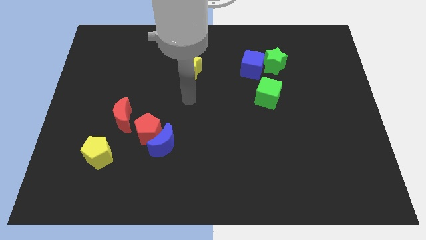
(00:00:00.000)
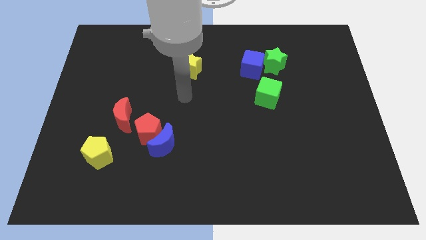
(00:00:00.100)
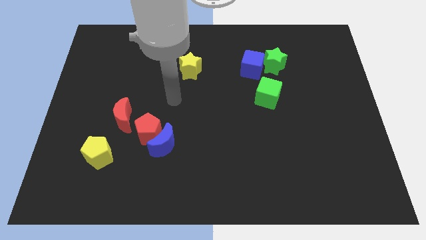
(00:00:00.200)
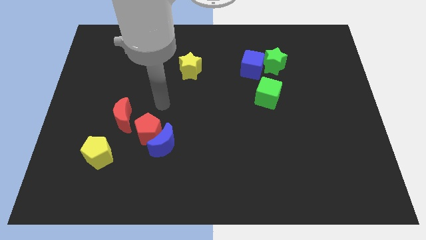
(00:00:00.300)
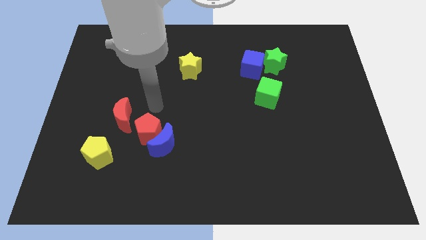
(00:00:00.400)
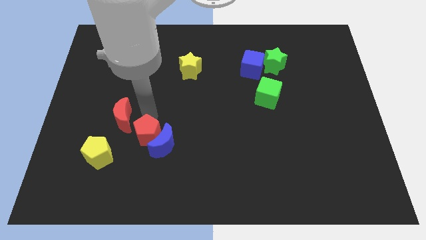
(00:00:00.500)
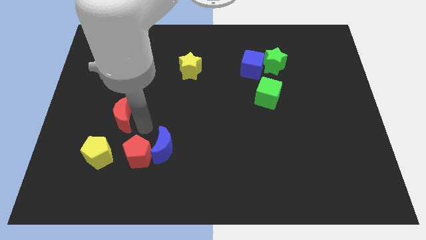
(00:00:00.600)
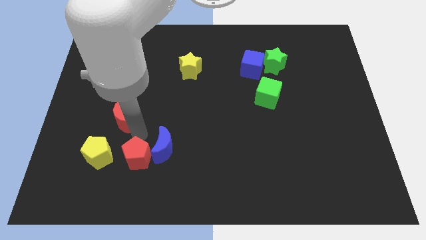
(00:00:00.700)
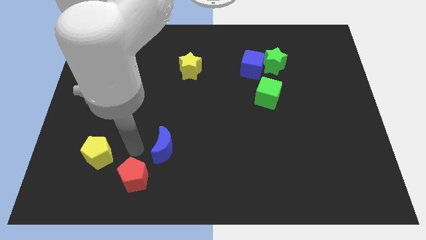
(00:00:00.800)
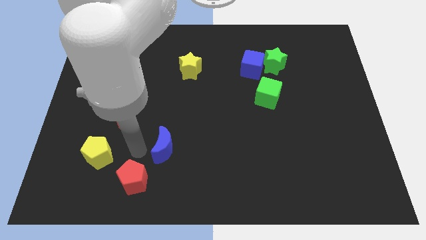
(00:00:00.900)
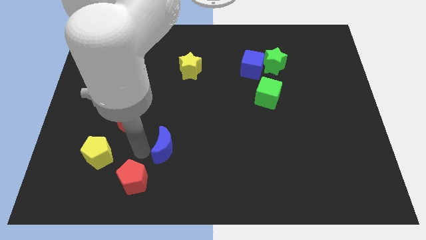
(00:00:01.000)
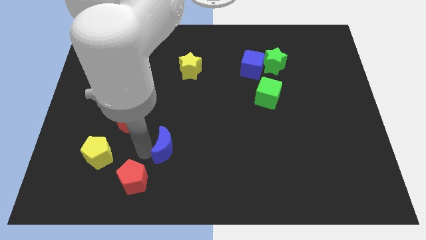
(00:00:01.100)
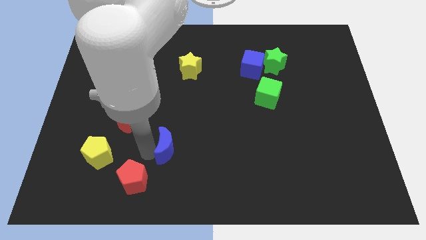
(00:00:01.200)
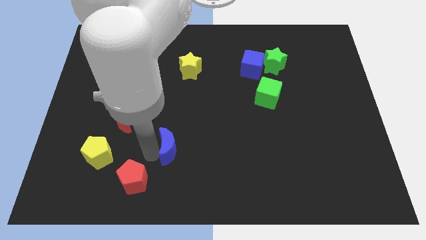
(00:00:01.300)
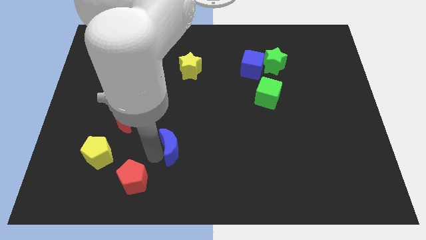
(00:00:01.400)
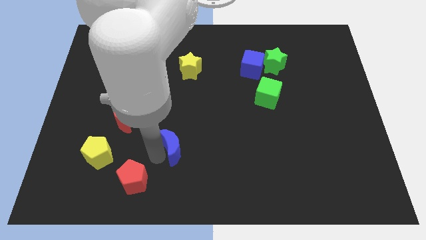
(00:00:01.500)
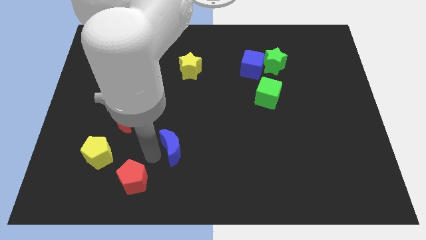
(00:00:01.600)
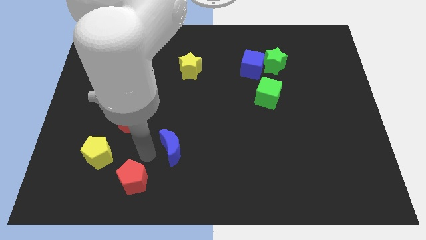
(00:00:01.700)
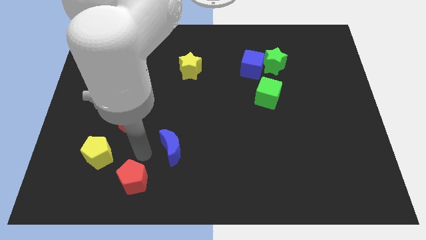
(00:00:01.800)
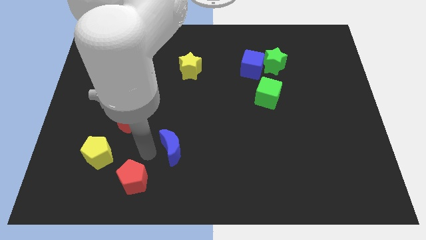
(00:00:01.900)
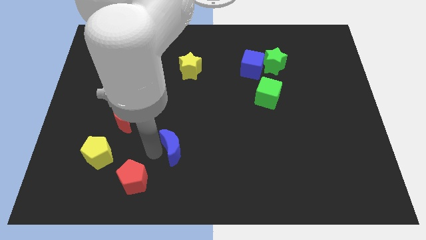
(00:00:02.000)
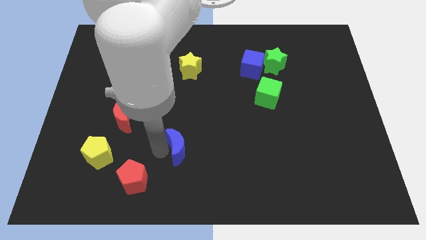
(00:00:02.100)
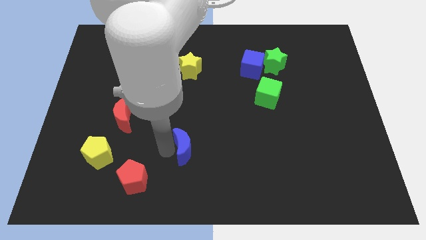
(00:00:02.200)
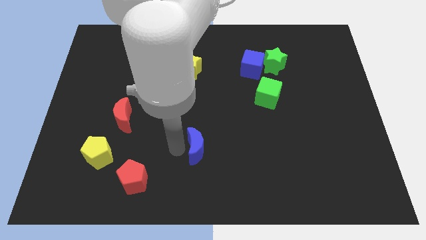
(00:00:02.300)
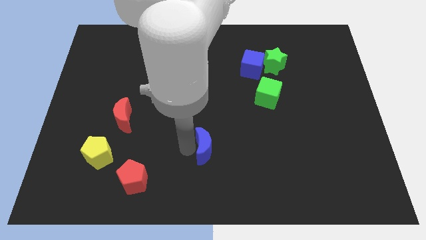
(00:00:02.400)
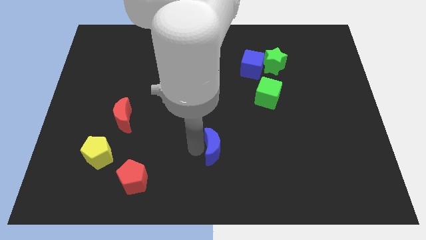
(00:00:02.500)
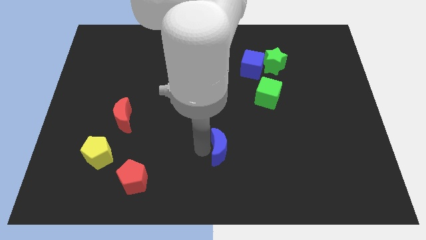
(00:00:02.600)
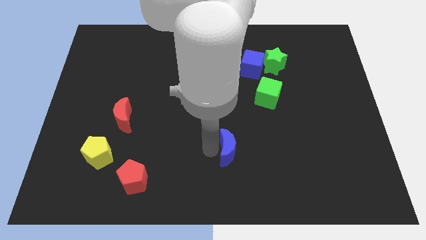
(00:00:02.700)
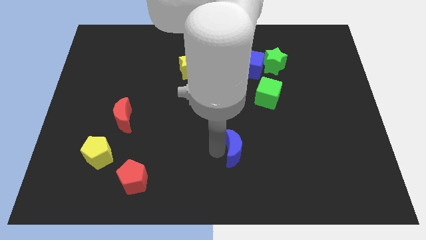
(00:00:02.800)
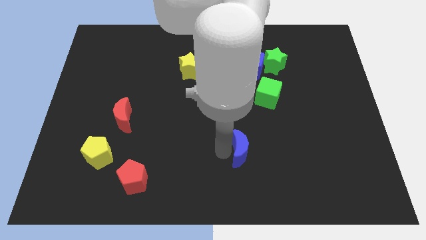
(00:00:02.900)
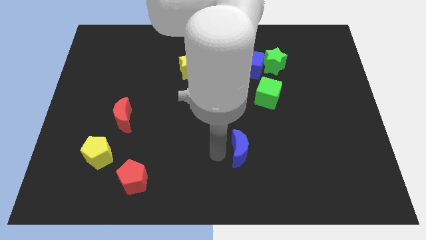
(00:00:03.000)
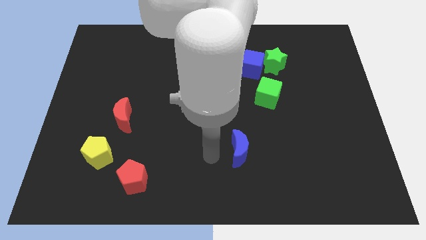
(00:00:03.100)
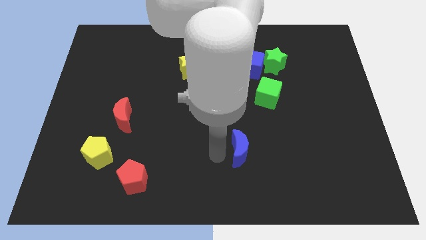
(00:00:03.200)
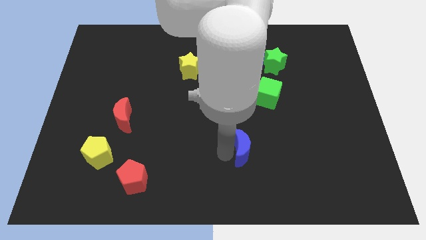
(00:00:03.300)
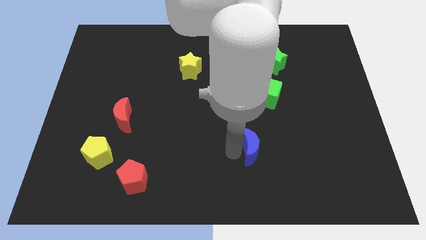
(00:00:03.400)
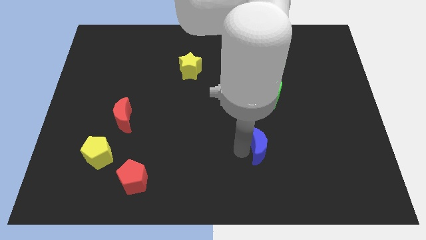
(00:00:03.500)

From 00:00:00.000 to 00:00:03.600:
slide the blue moon right

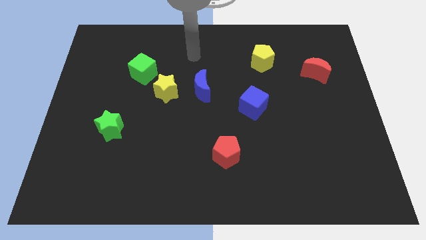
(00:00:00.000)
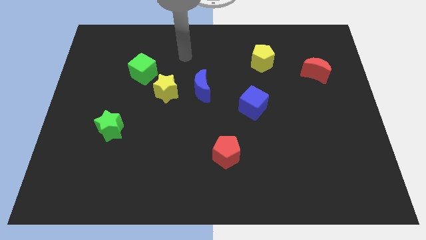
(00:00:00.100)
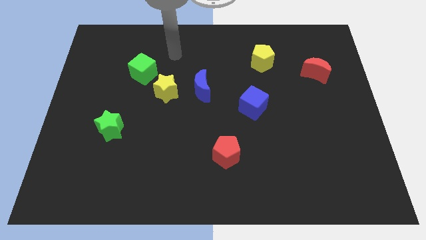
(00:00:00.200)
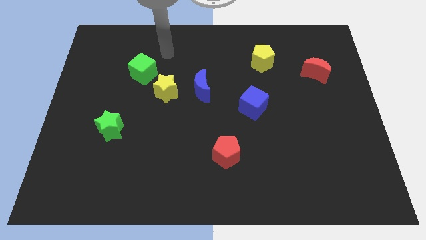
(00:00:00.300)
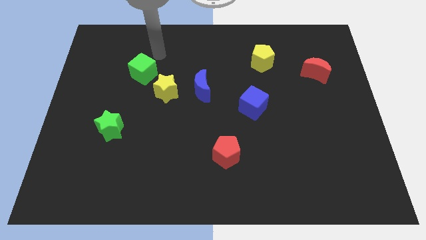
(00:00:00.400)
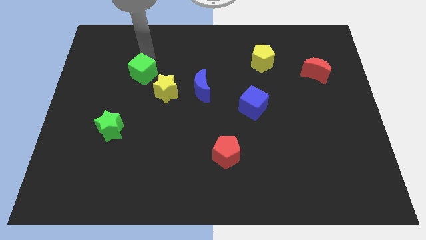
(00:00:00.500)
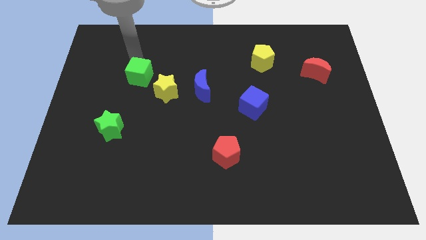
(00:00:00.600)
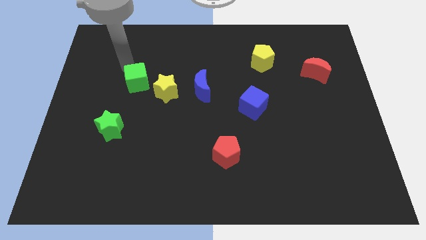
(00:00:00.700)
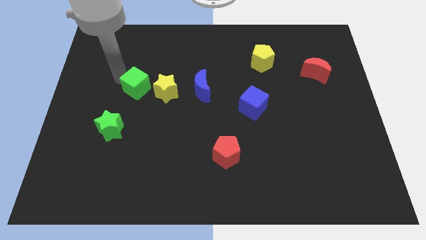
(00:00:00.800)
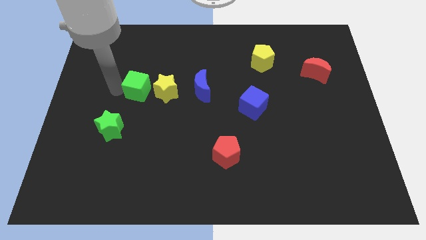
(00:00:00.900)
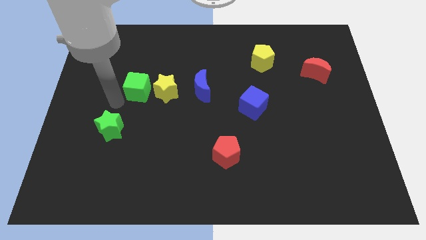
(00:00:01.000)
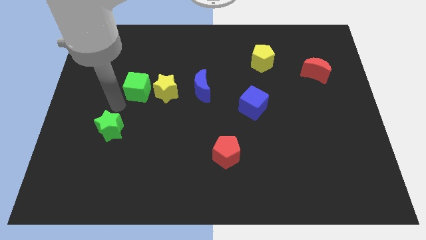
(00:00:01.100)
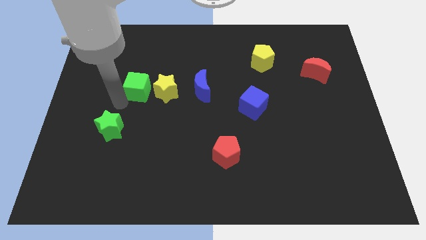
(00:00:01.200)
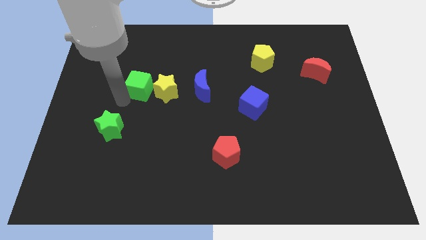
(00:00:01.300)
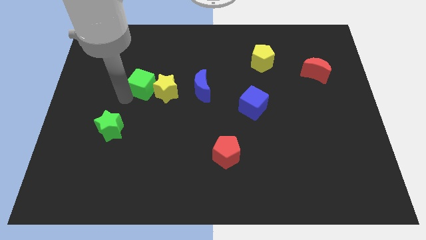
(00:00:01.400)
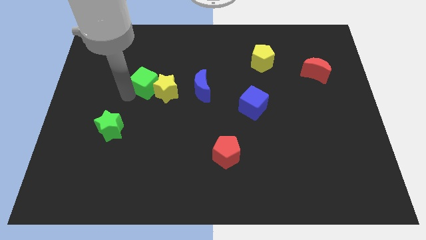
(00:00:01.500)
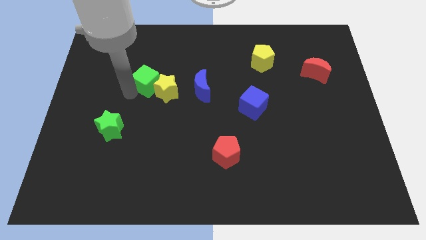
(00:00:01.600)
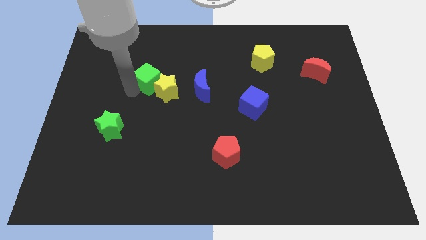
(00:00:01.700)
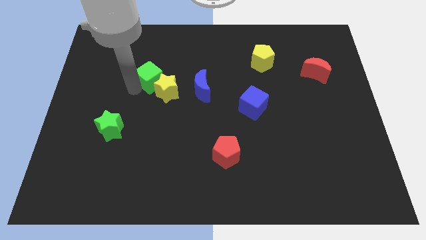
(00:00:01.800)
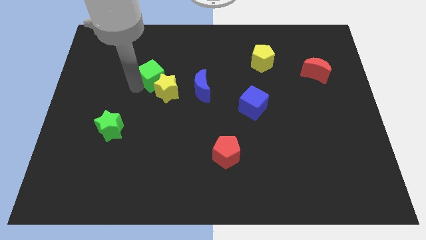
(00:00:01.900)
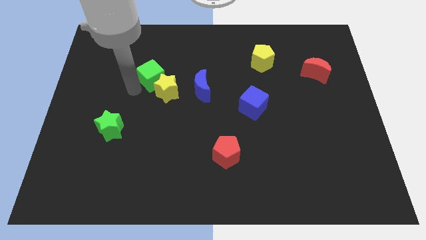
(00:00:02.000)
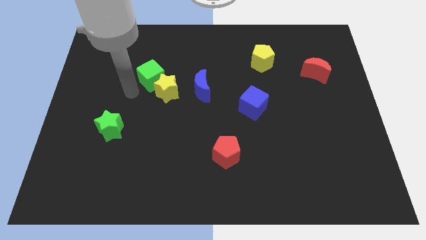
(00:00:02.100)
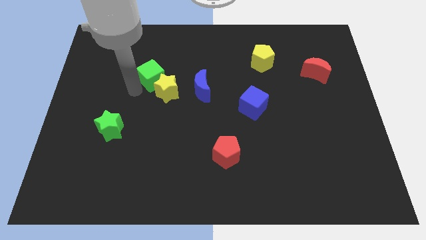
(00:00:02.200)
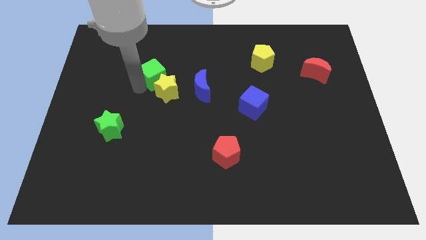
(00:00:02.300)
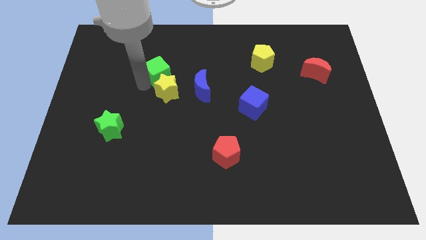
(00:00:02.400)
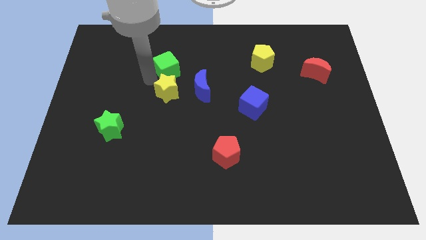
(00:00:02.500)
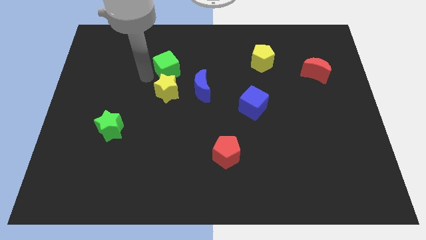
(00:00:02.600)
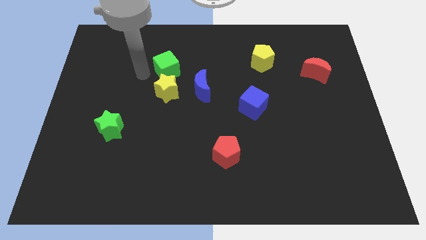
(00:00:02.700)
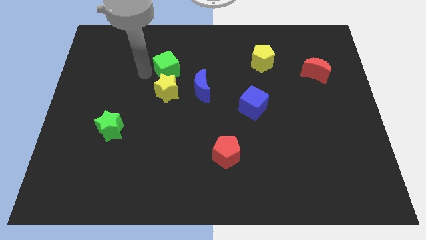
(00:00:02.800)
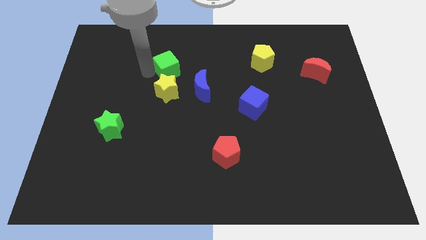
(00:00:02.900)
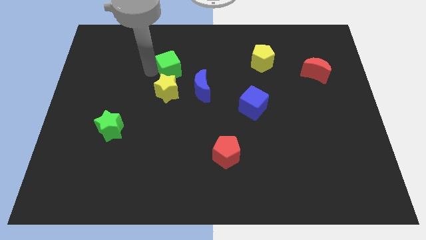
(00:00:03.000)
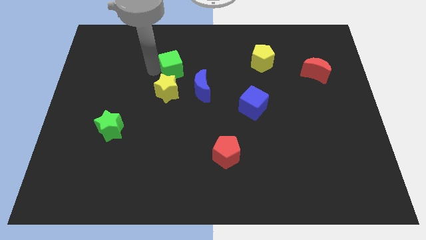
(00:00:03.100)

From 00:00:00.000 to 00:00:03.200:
slightly push the green cube to the right

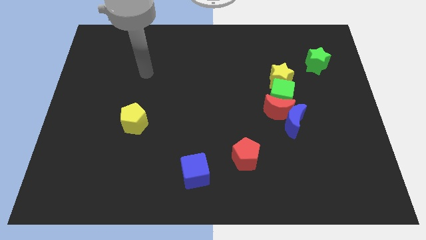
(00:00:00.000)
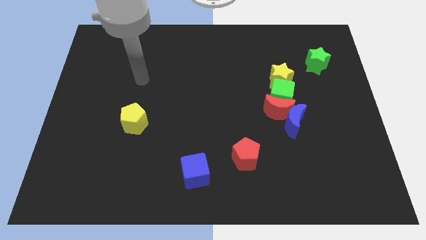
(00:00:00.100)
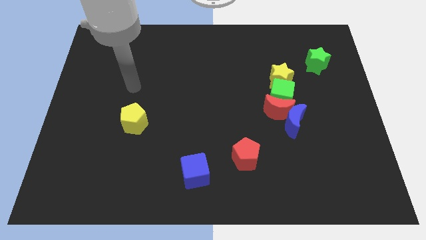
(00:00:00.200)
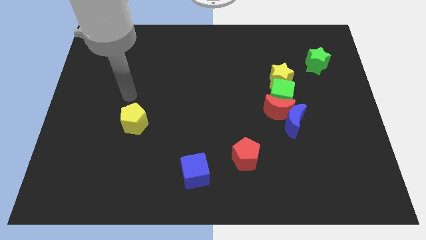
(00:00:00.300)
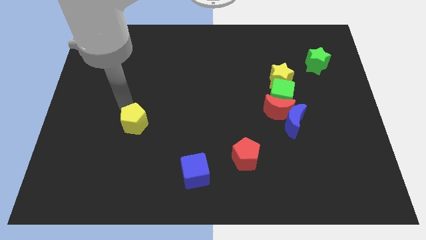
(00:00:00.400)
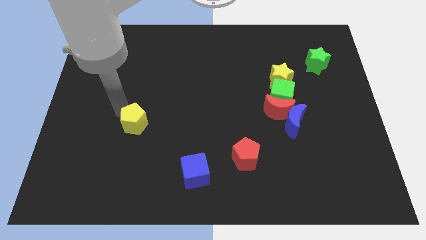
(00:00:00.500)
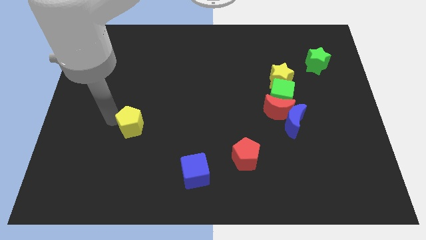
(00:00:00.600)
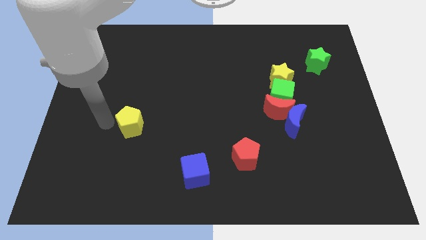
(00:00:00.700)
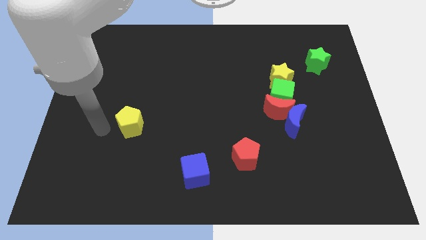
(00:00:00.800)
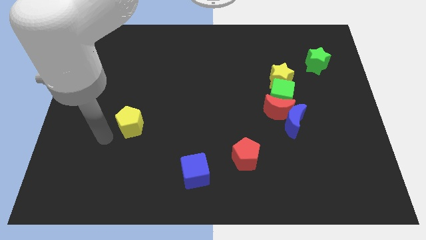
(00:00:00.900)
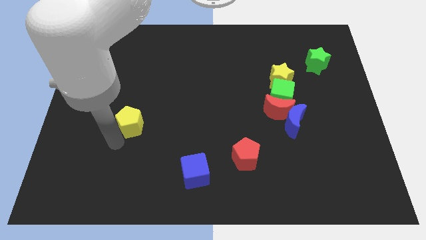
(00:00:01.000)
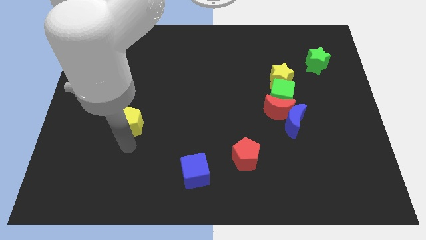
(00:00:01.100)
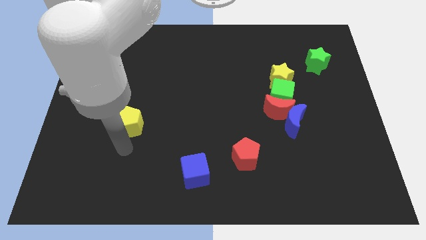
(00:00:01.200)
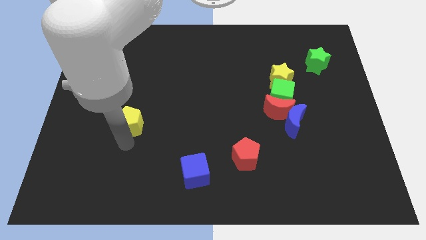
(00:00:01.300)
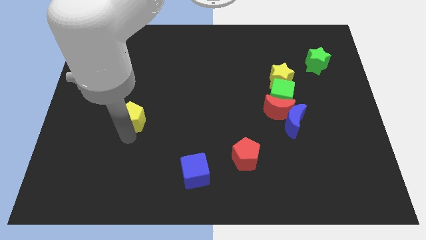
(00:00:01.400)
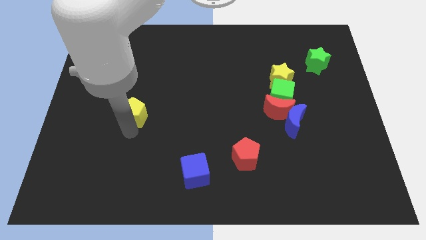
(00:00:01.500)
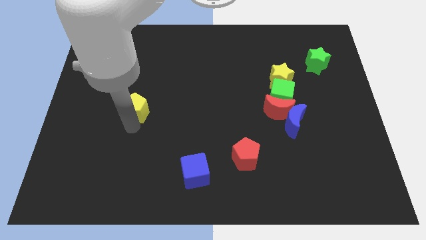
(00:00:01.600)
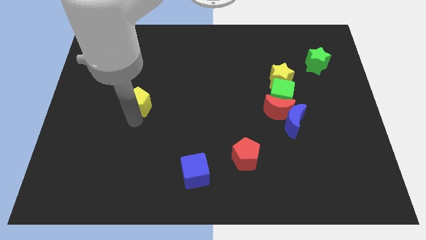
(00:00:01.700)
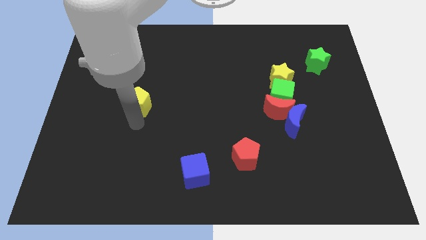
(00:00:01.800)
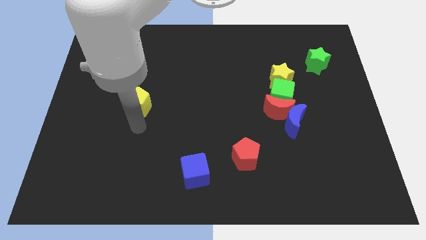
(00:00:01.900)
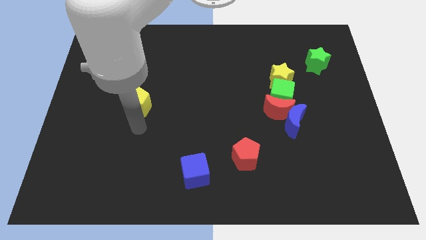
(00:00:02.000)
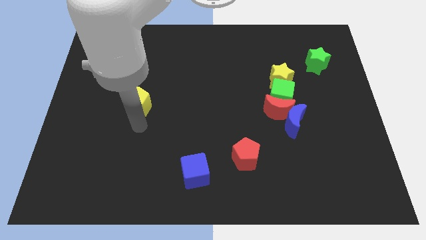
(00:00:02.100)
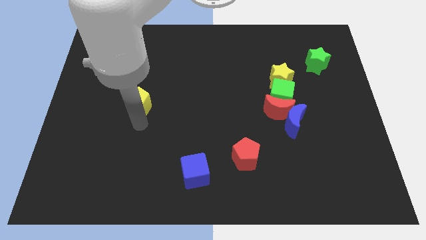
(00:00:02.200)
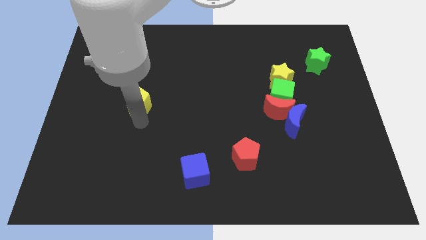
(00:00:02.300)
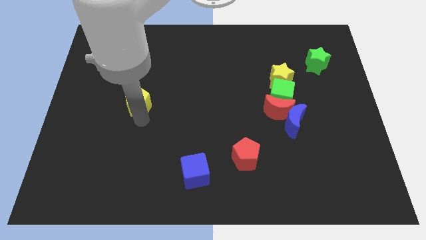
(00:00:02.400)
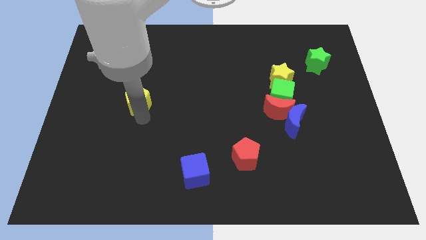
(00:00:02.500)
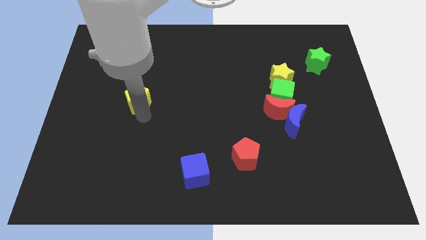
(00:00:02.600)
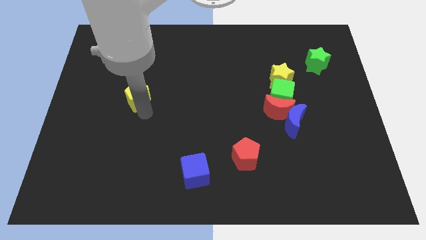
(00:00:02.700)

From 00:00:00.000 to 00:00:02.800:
slightly slide the yellow pentagon upwards
